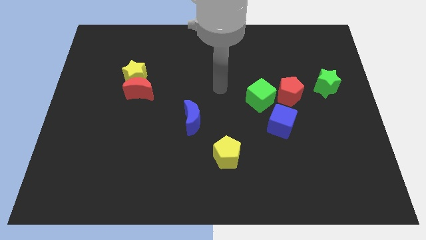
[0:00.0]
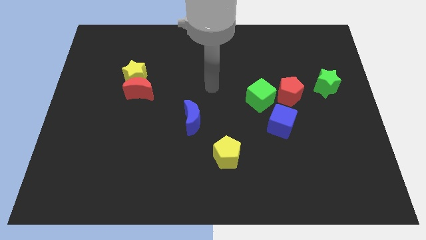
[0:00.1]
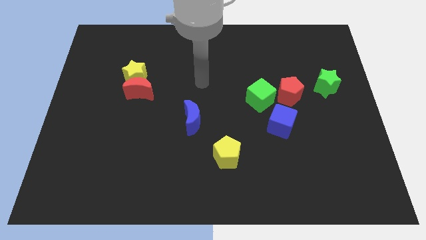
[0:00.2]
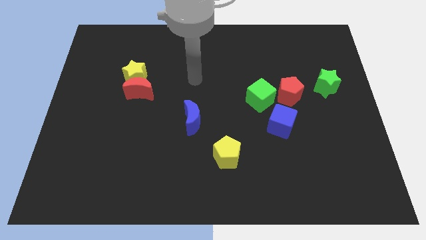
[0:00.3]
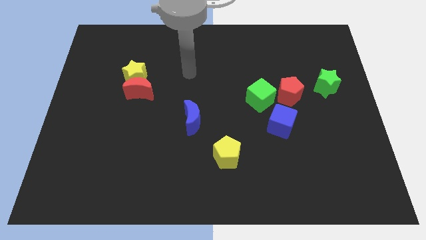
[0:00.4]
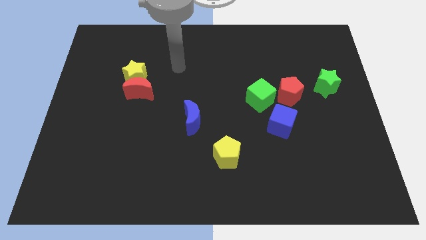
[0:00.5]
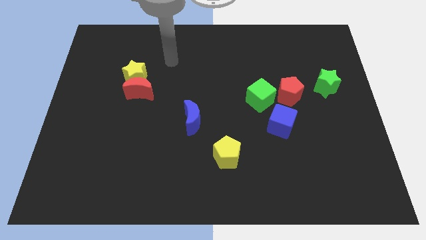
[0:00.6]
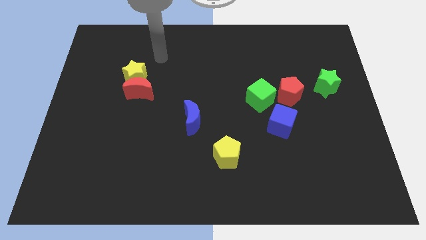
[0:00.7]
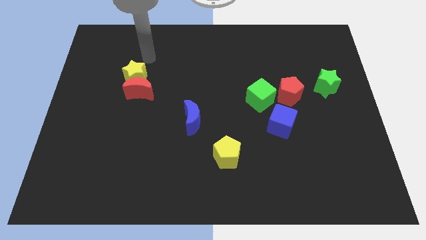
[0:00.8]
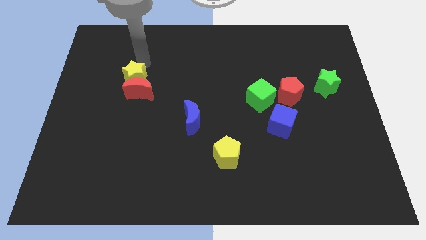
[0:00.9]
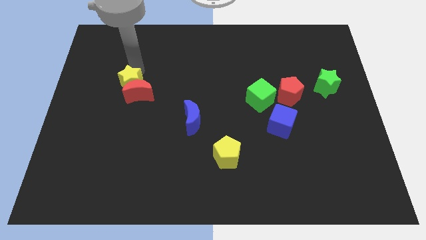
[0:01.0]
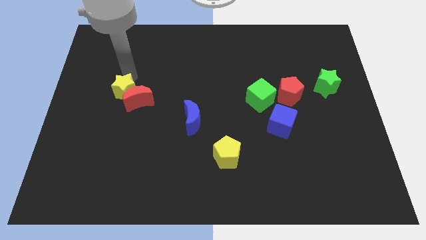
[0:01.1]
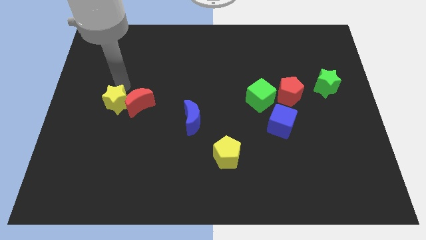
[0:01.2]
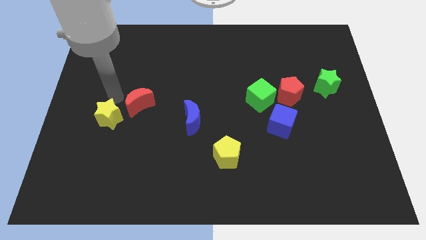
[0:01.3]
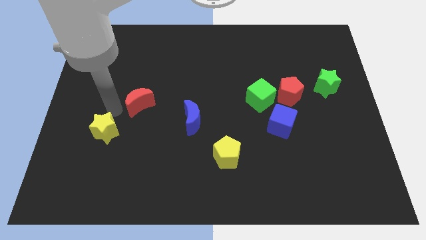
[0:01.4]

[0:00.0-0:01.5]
move the red moon away from the yellow star

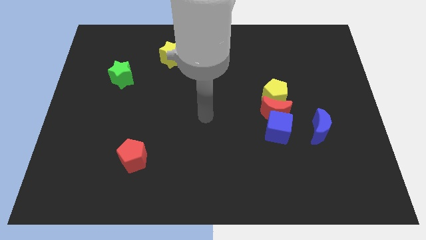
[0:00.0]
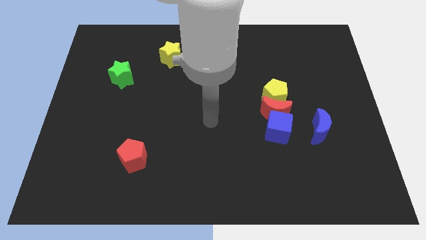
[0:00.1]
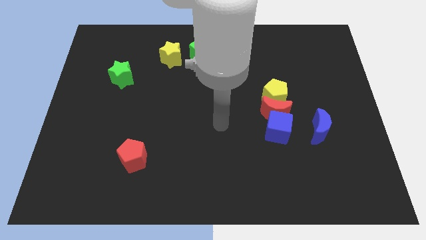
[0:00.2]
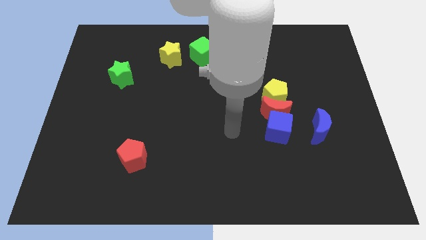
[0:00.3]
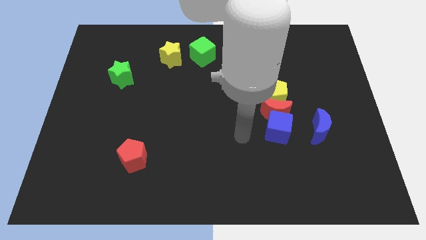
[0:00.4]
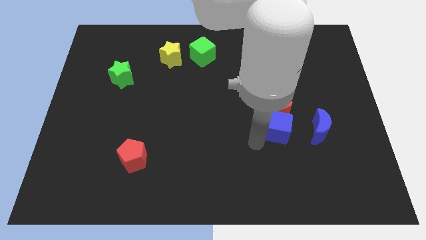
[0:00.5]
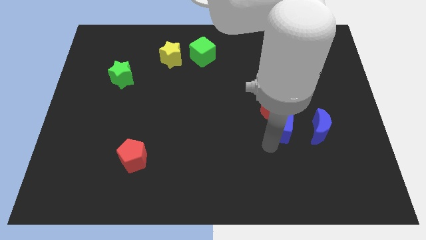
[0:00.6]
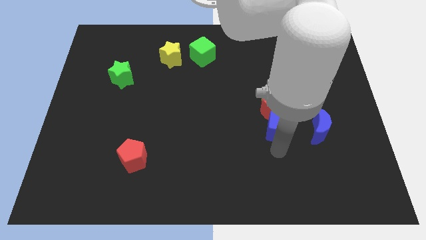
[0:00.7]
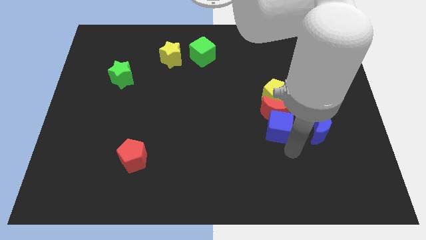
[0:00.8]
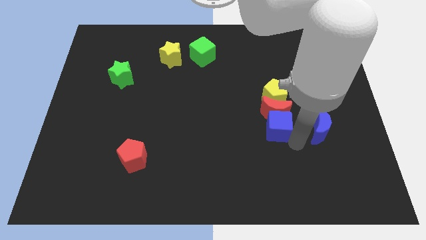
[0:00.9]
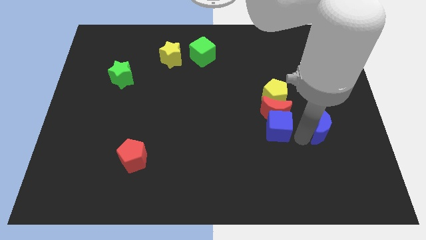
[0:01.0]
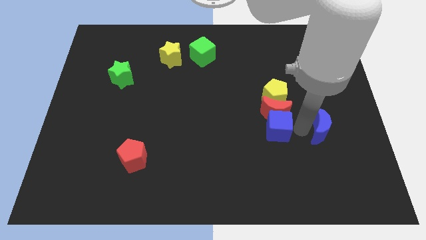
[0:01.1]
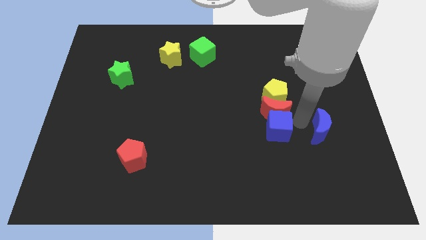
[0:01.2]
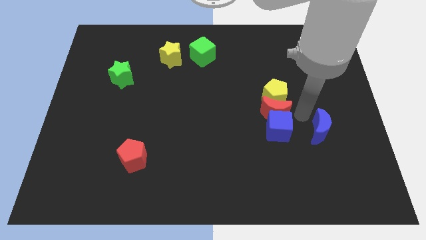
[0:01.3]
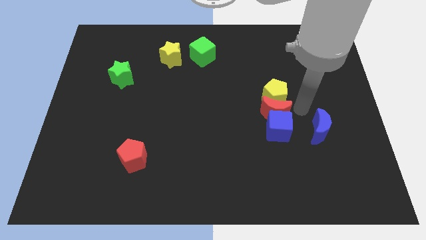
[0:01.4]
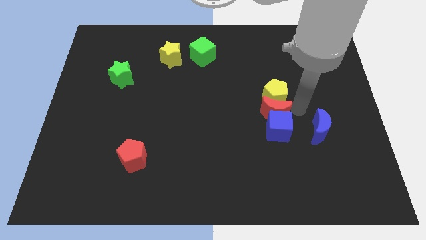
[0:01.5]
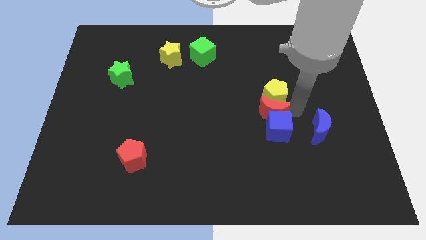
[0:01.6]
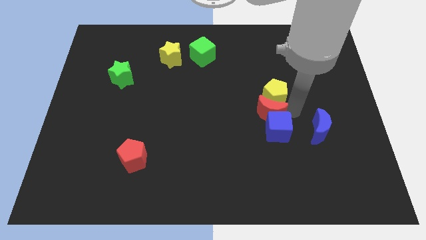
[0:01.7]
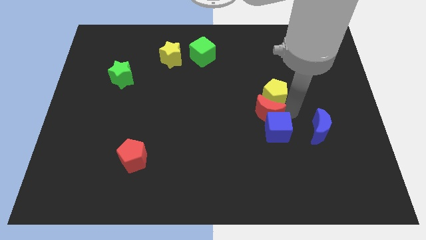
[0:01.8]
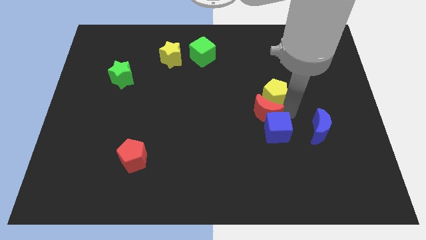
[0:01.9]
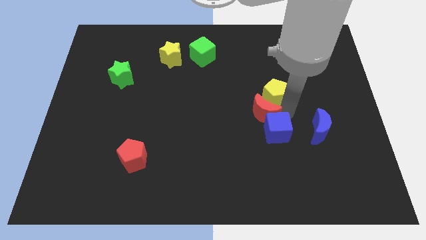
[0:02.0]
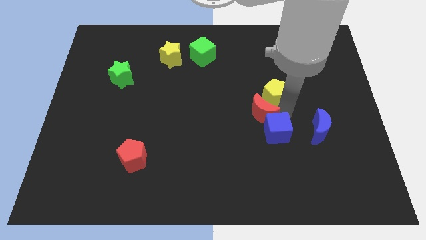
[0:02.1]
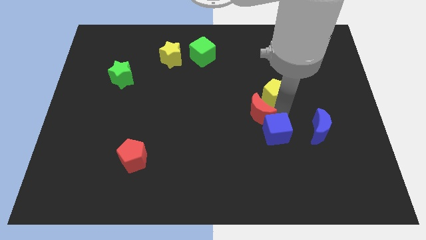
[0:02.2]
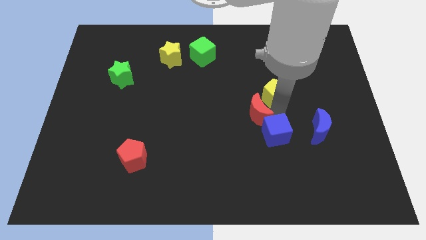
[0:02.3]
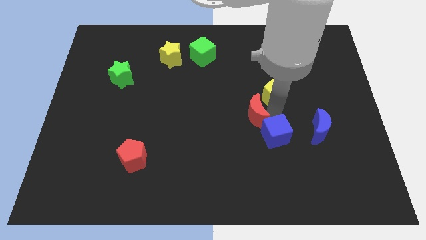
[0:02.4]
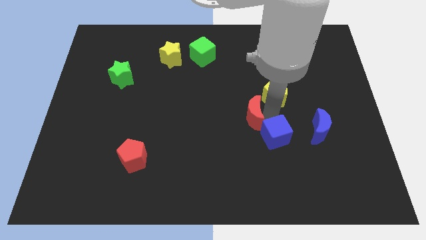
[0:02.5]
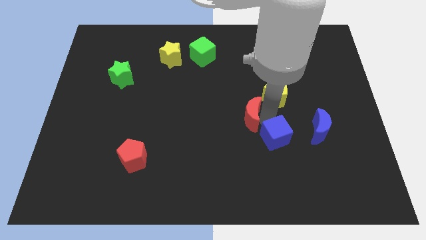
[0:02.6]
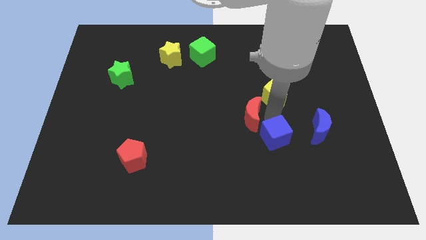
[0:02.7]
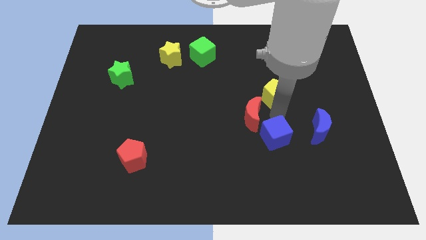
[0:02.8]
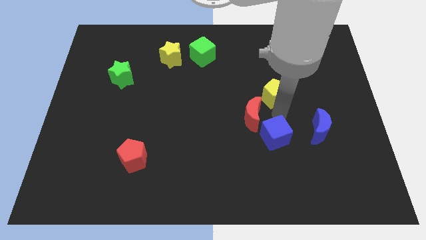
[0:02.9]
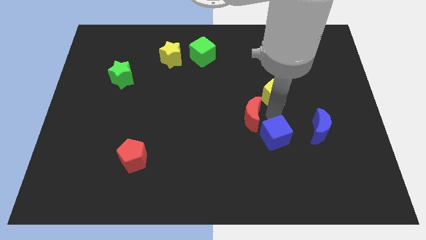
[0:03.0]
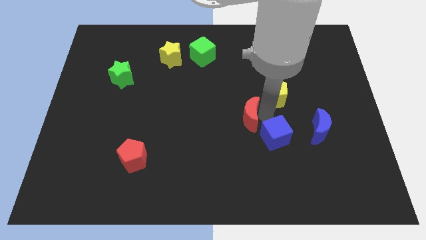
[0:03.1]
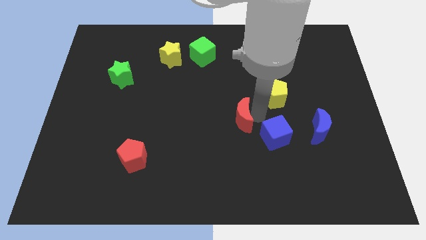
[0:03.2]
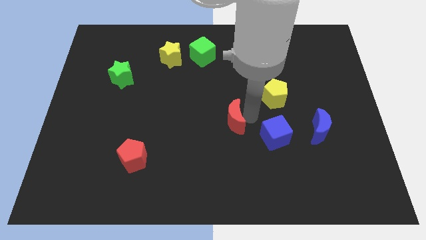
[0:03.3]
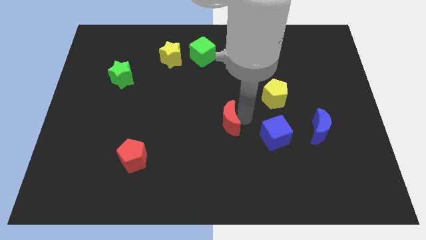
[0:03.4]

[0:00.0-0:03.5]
move the red moon away from the blue cube and yellow pentagon

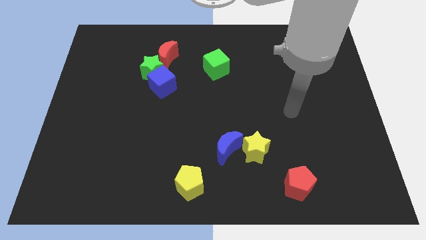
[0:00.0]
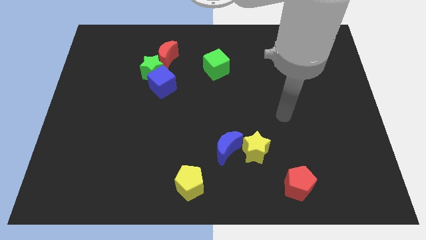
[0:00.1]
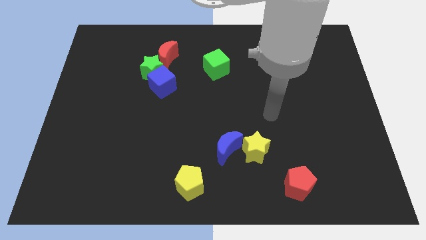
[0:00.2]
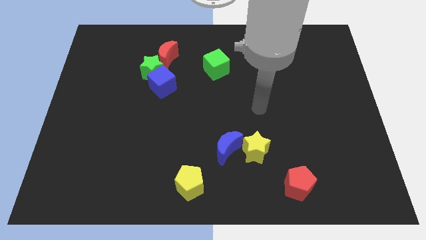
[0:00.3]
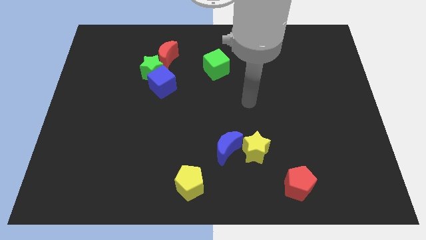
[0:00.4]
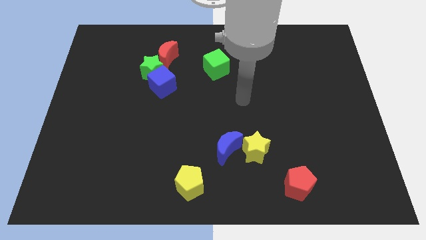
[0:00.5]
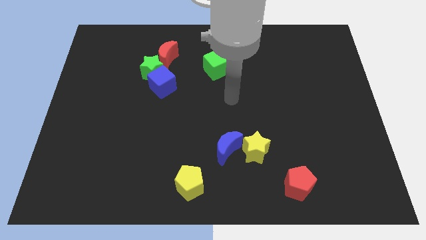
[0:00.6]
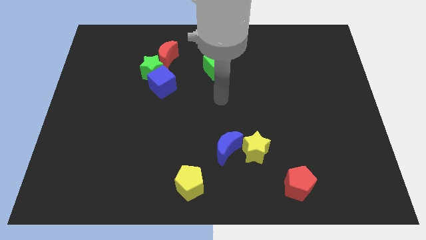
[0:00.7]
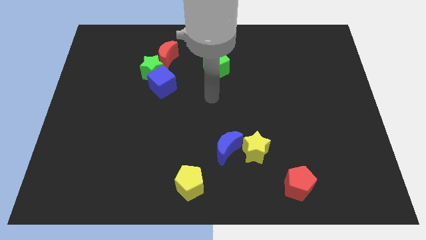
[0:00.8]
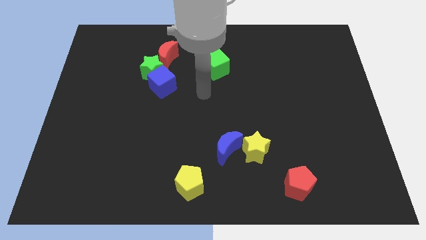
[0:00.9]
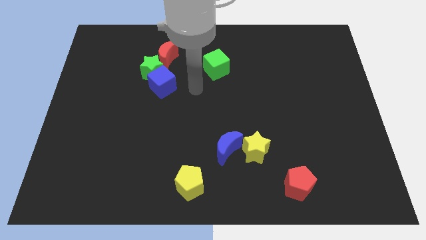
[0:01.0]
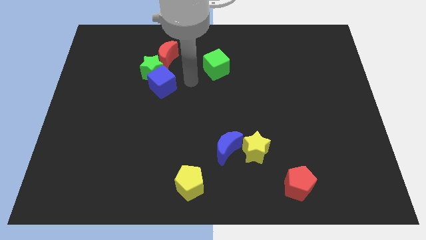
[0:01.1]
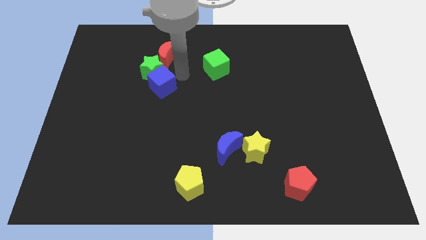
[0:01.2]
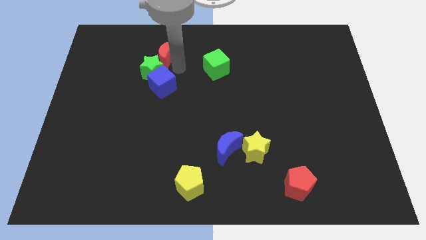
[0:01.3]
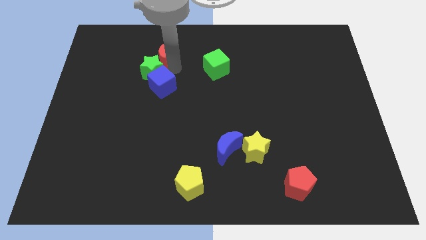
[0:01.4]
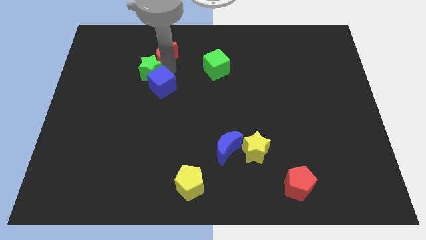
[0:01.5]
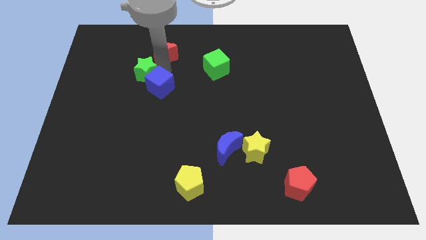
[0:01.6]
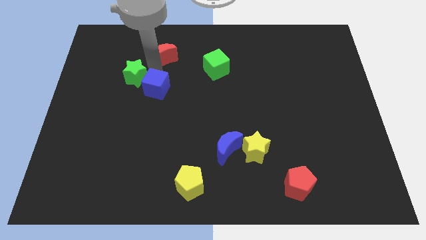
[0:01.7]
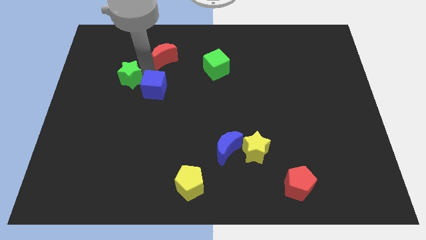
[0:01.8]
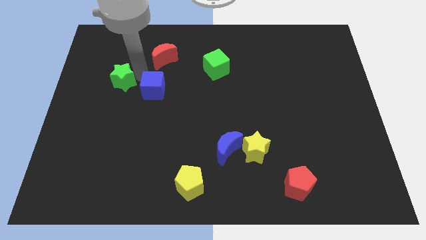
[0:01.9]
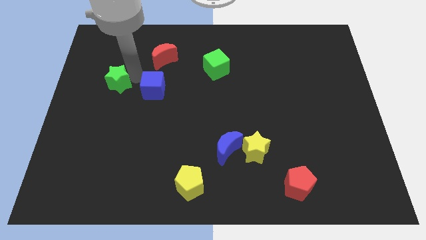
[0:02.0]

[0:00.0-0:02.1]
separate the green star from the blue cube and red moon

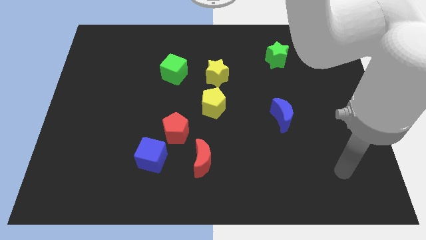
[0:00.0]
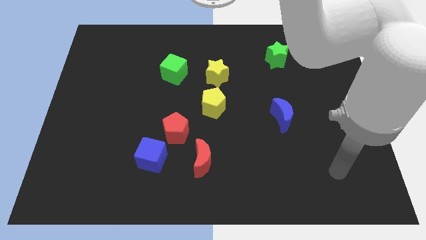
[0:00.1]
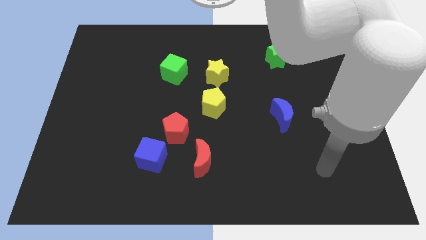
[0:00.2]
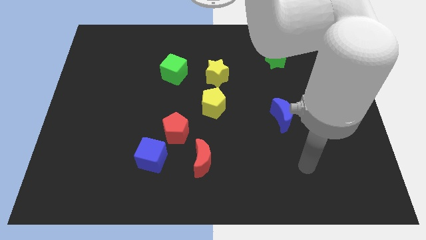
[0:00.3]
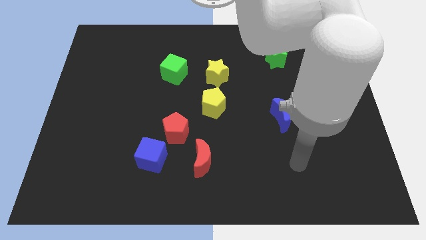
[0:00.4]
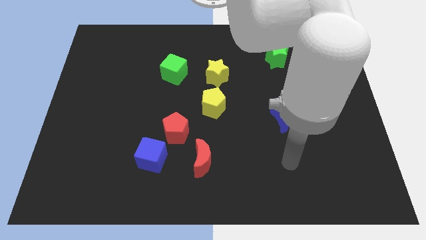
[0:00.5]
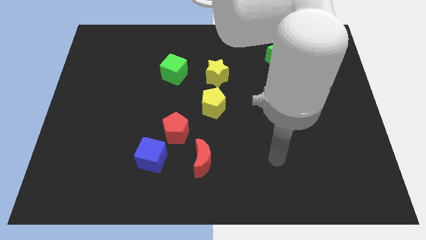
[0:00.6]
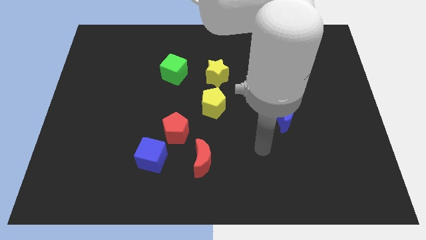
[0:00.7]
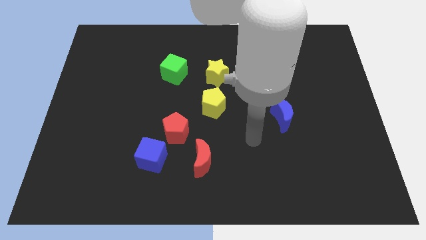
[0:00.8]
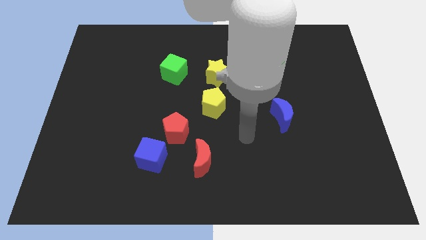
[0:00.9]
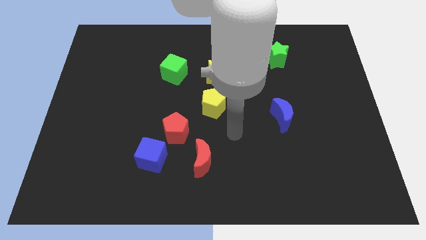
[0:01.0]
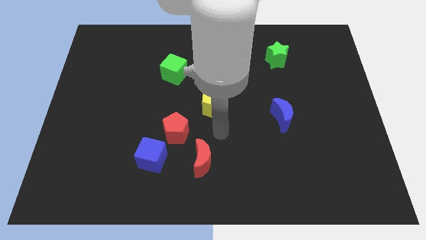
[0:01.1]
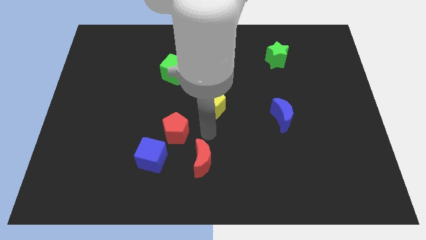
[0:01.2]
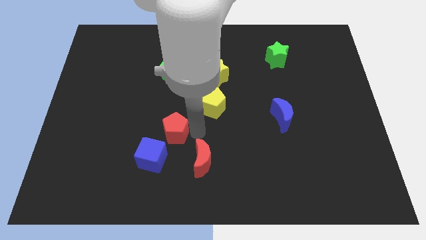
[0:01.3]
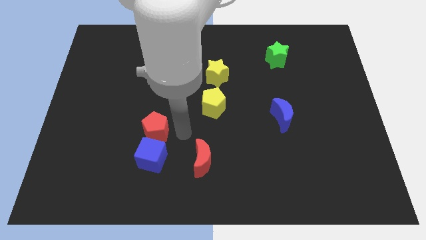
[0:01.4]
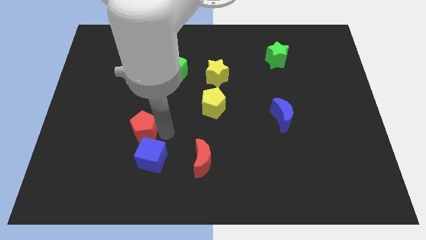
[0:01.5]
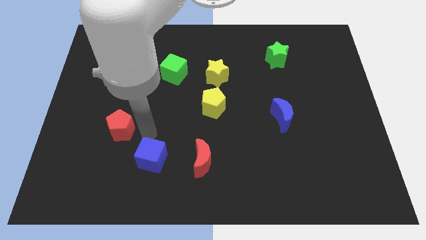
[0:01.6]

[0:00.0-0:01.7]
separate the blue cube from the red pentagon

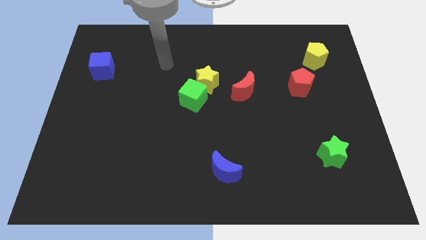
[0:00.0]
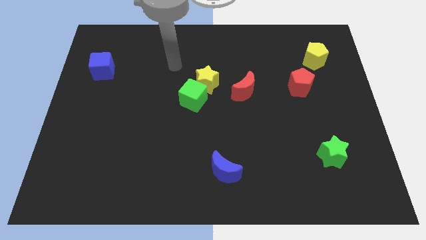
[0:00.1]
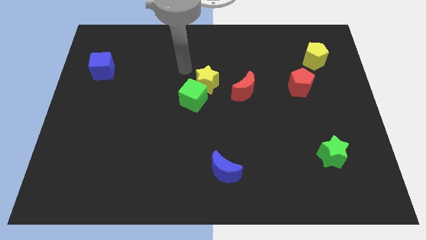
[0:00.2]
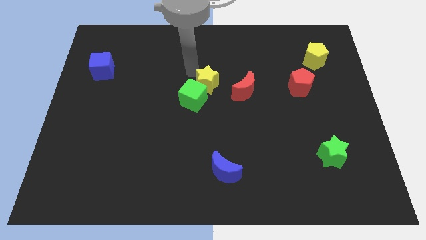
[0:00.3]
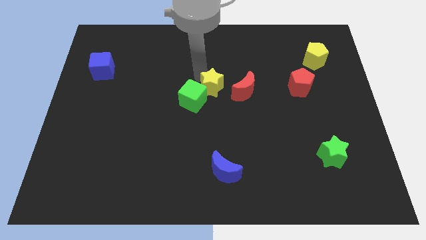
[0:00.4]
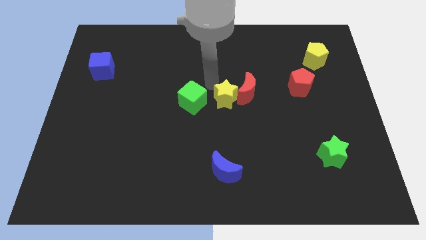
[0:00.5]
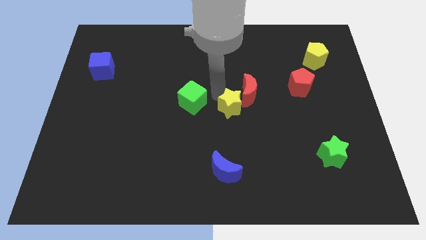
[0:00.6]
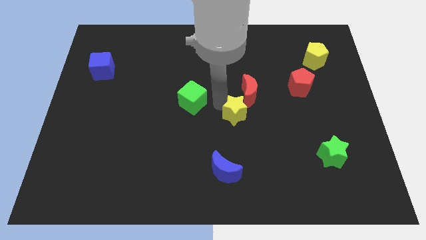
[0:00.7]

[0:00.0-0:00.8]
separate the green cube from the yellow star
